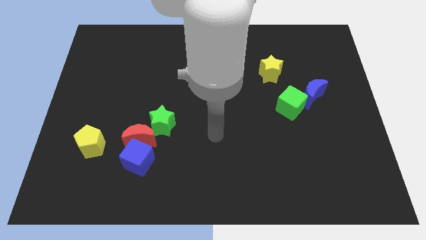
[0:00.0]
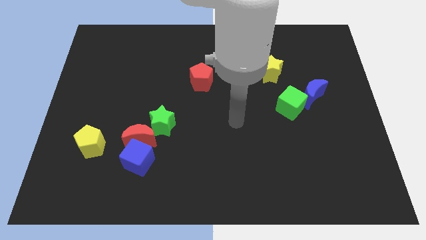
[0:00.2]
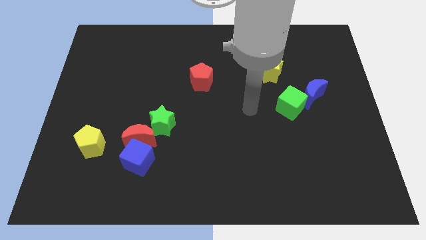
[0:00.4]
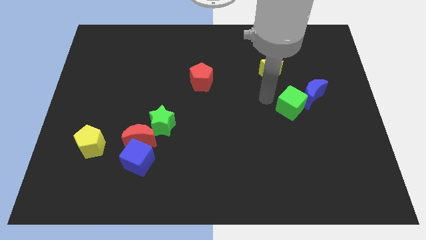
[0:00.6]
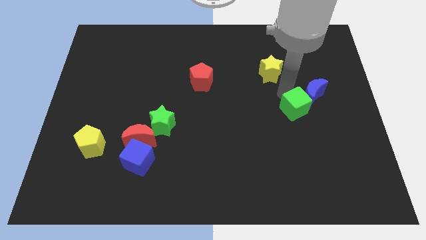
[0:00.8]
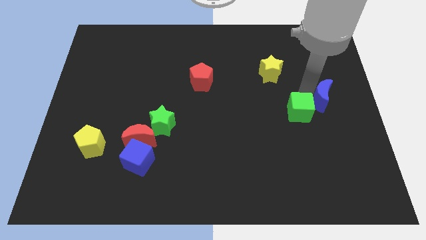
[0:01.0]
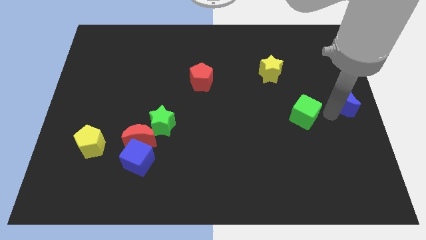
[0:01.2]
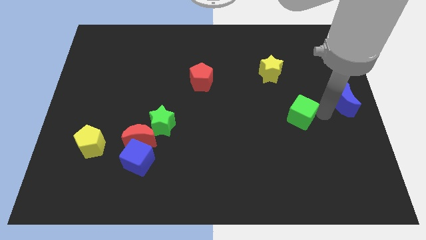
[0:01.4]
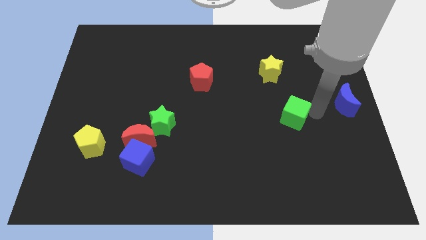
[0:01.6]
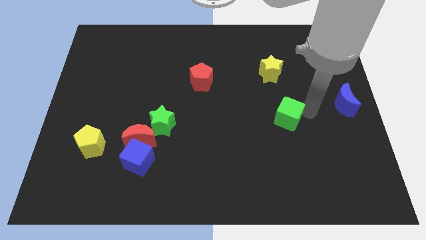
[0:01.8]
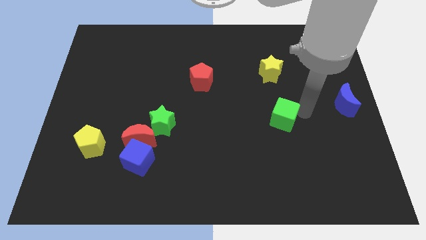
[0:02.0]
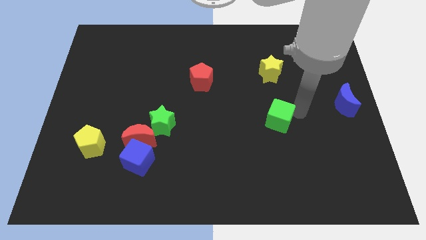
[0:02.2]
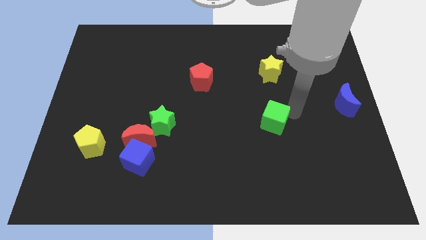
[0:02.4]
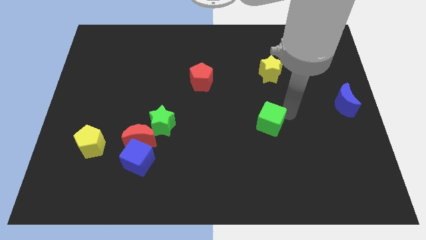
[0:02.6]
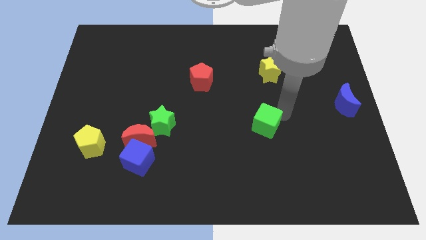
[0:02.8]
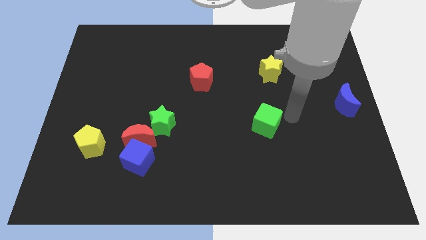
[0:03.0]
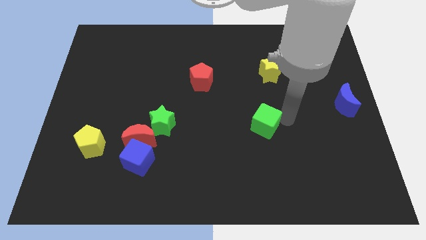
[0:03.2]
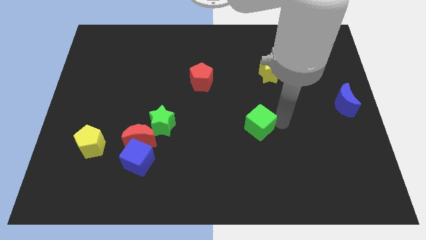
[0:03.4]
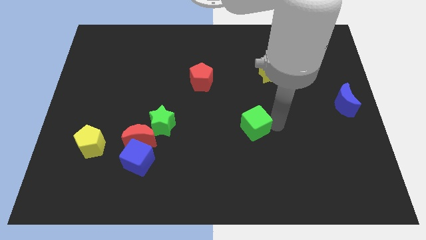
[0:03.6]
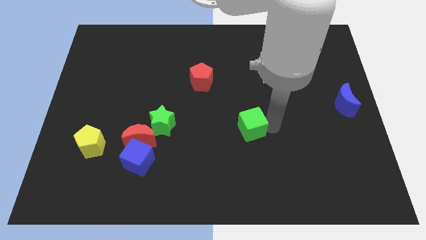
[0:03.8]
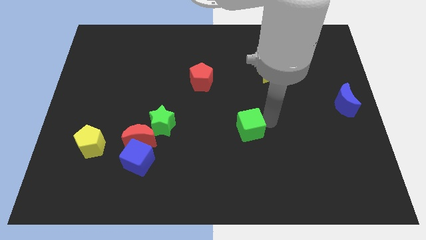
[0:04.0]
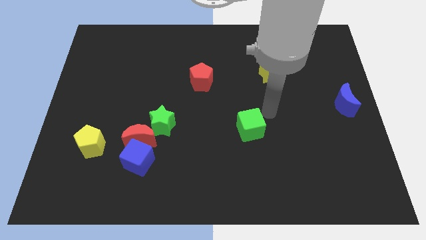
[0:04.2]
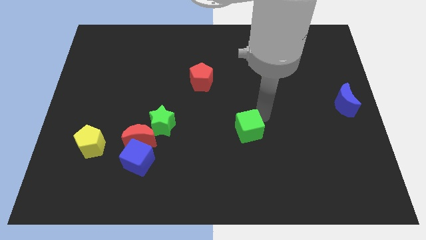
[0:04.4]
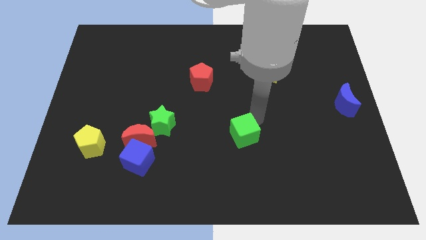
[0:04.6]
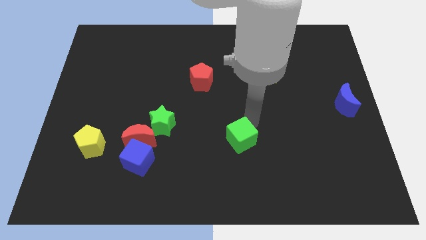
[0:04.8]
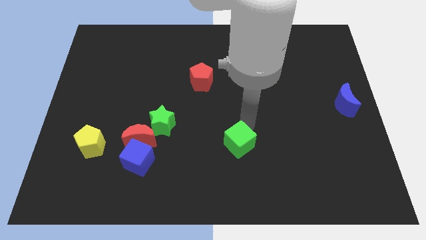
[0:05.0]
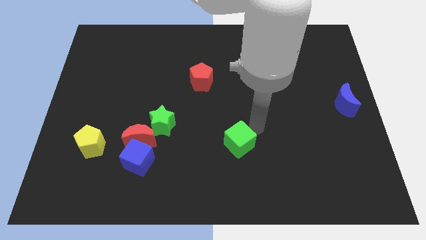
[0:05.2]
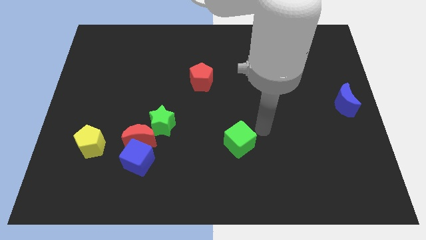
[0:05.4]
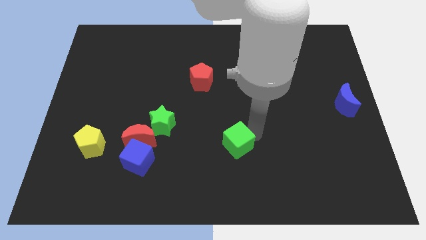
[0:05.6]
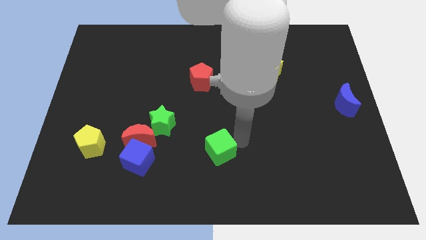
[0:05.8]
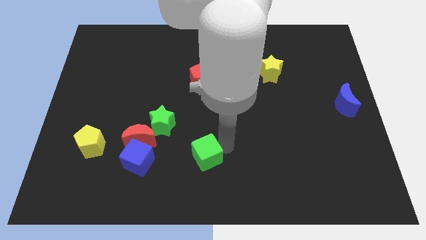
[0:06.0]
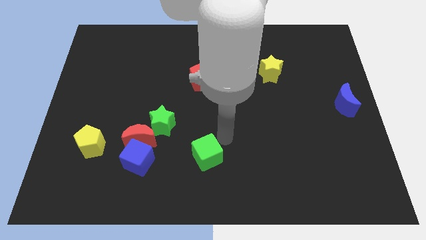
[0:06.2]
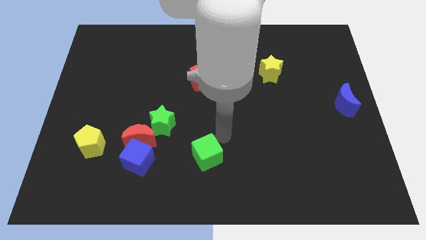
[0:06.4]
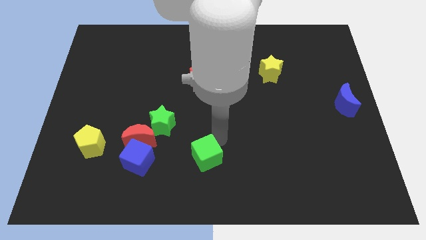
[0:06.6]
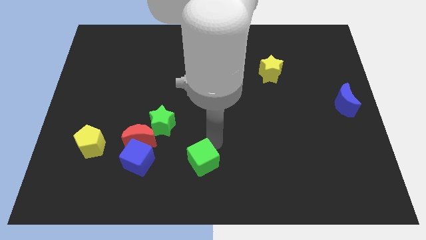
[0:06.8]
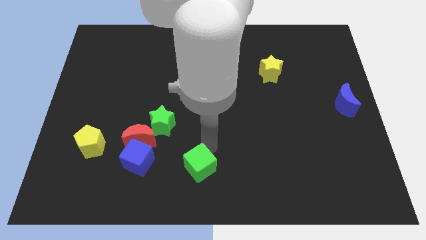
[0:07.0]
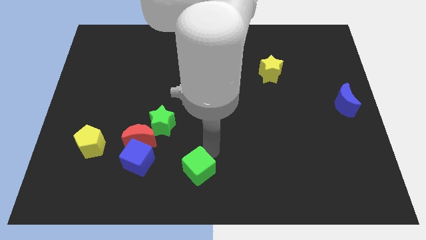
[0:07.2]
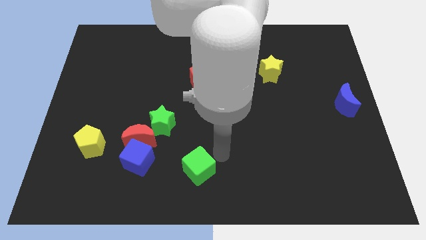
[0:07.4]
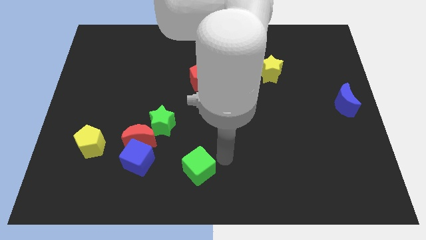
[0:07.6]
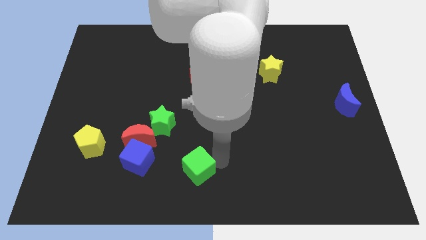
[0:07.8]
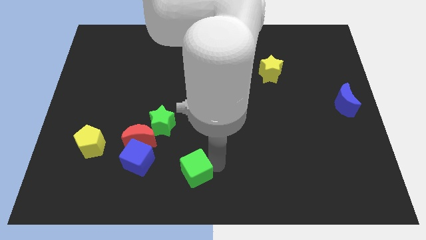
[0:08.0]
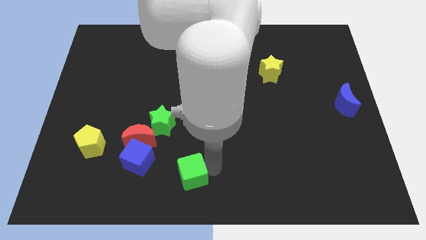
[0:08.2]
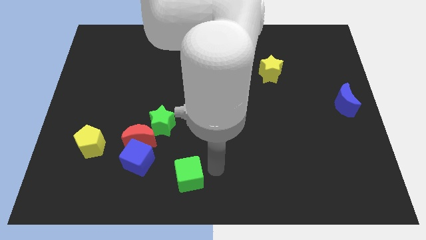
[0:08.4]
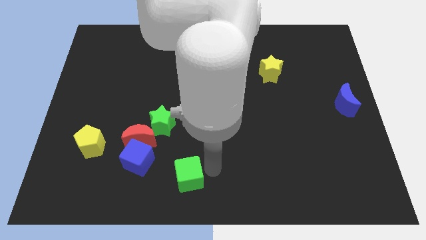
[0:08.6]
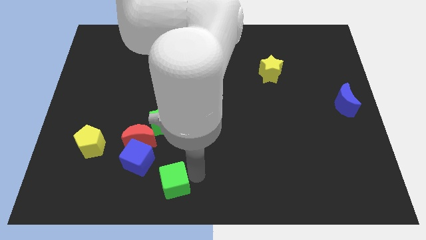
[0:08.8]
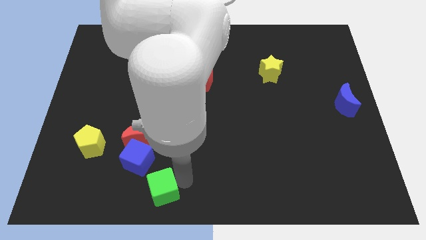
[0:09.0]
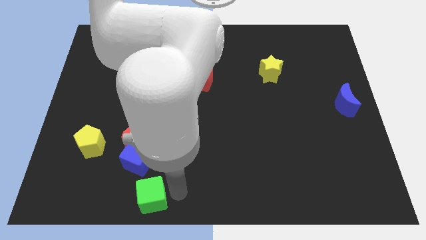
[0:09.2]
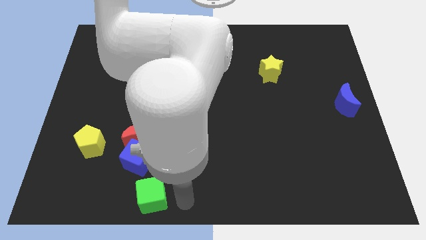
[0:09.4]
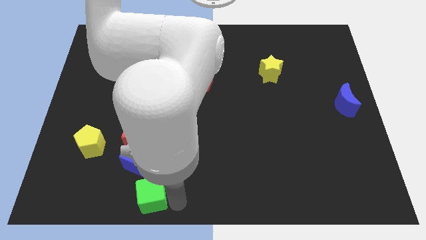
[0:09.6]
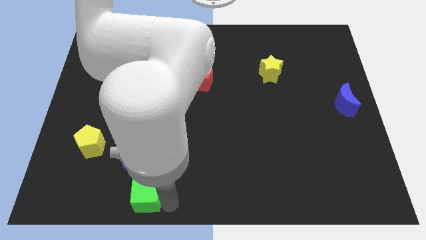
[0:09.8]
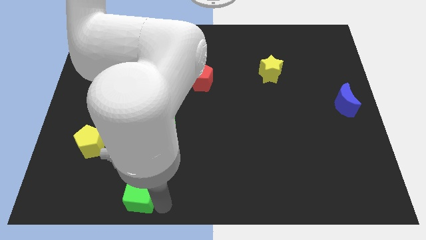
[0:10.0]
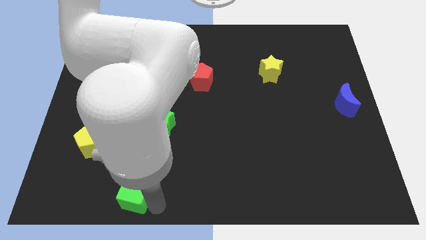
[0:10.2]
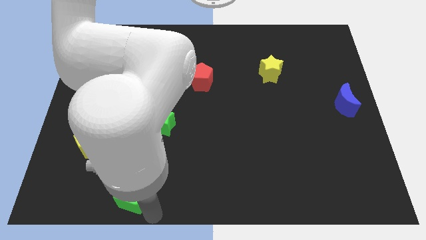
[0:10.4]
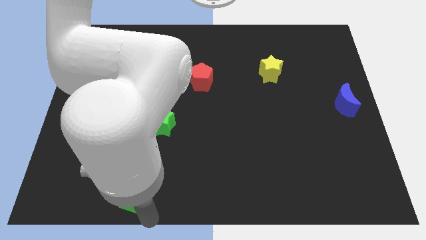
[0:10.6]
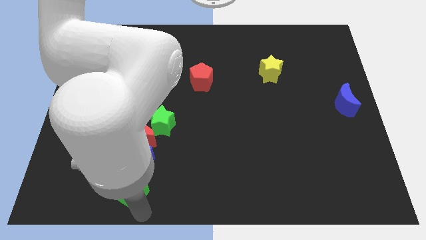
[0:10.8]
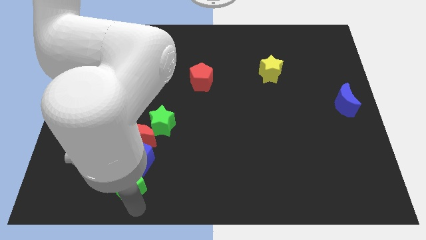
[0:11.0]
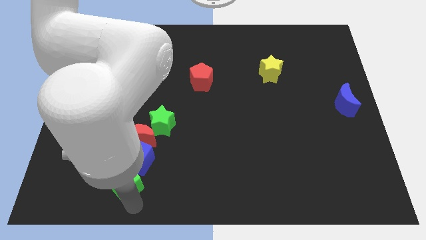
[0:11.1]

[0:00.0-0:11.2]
push the green cube to the bottom right of the yellow pentagon
